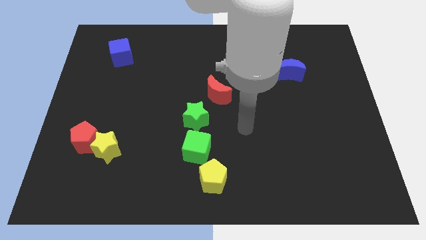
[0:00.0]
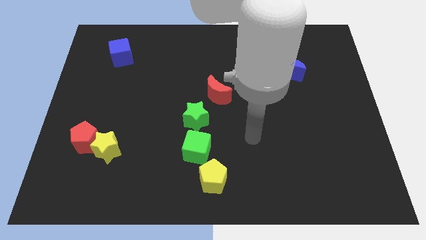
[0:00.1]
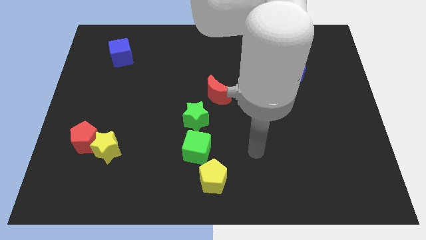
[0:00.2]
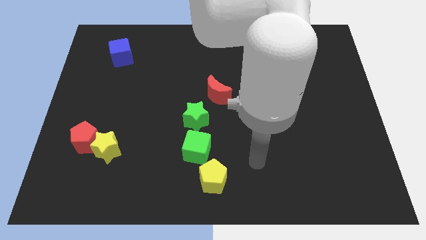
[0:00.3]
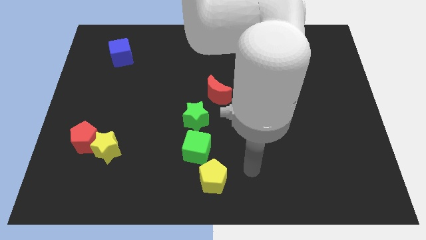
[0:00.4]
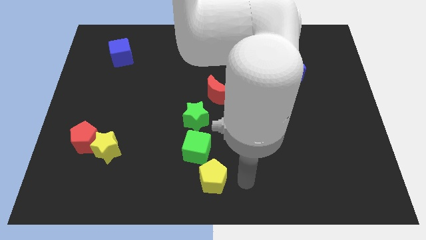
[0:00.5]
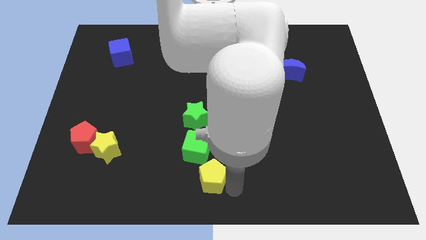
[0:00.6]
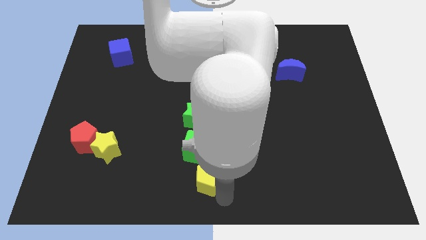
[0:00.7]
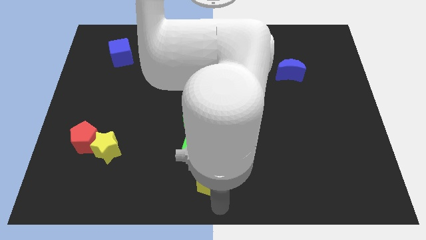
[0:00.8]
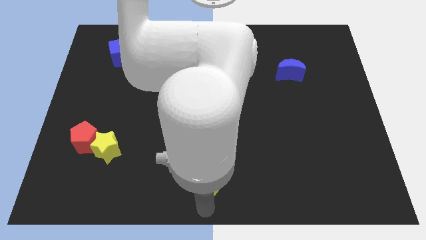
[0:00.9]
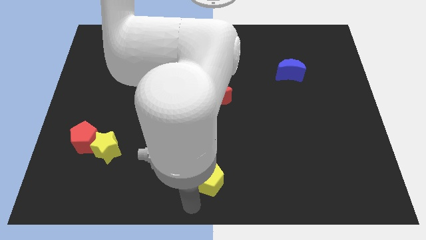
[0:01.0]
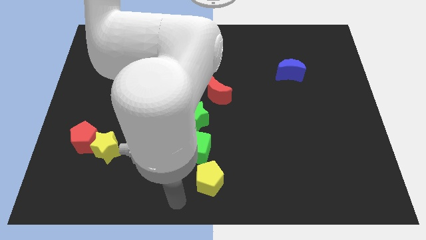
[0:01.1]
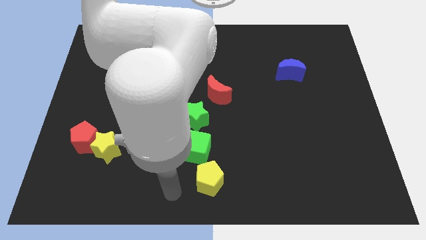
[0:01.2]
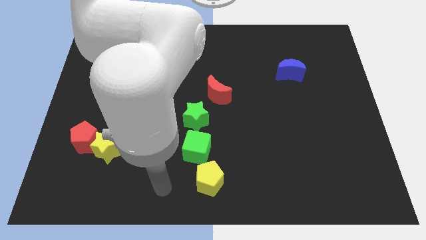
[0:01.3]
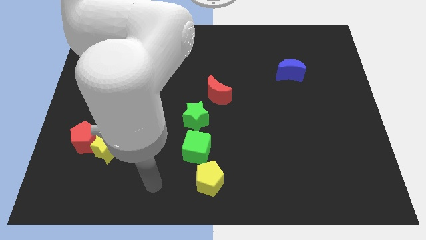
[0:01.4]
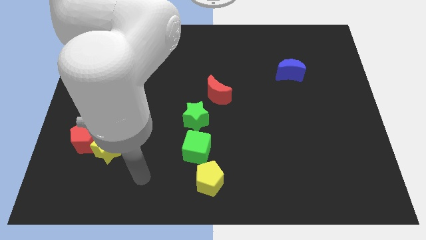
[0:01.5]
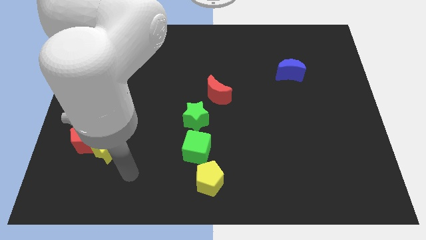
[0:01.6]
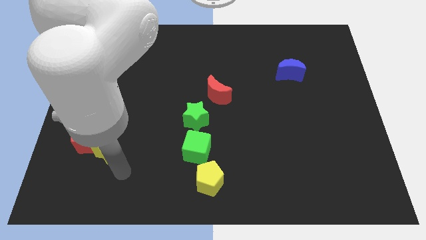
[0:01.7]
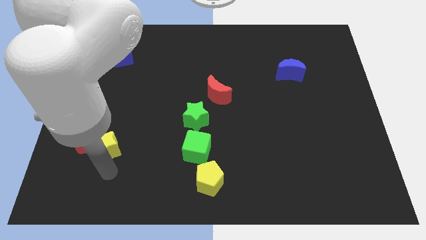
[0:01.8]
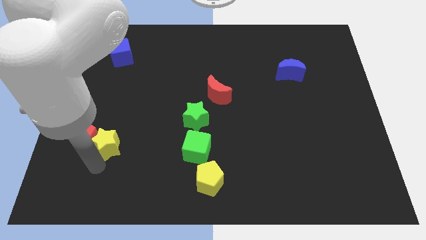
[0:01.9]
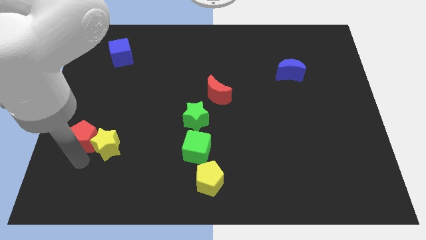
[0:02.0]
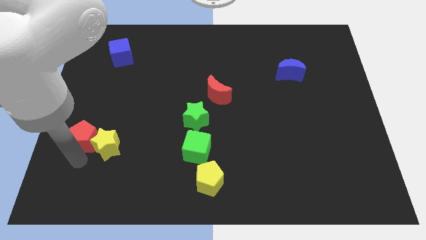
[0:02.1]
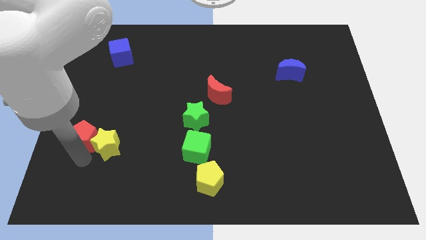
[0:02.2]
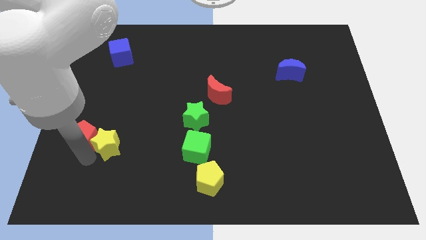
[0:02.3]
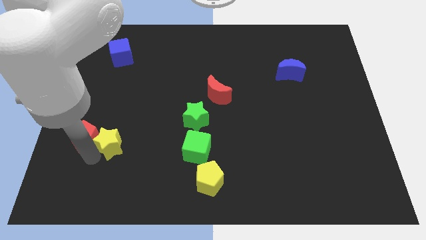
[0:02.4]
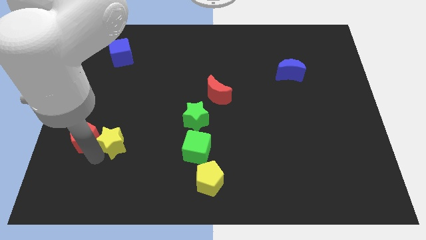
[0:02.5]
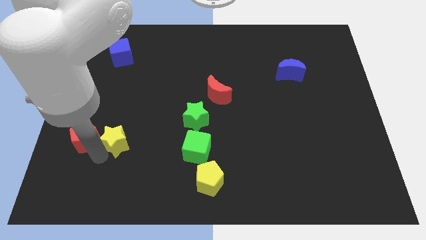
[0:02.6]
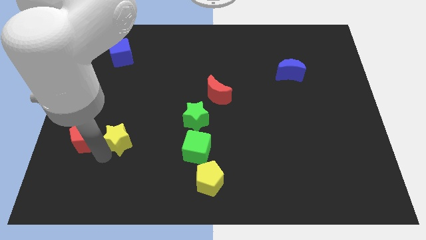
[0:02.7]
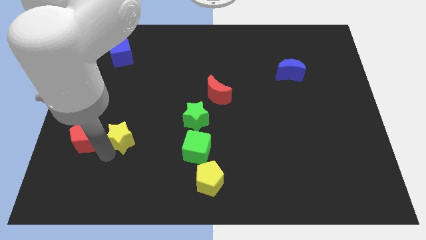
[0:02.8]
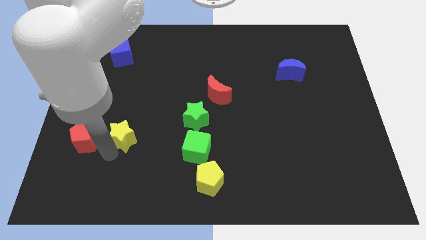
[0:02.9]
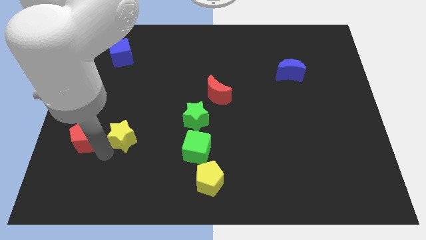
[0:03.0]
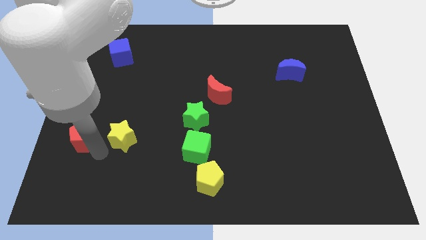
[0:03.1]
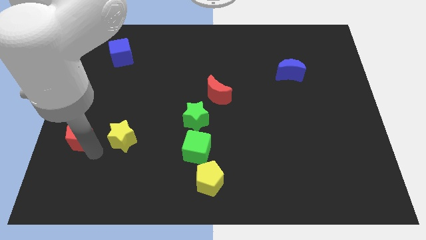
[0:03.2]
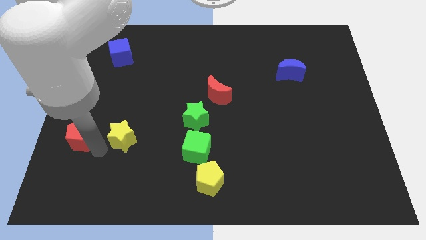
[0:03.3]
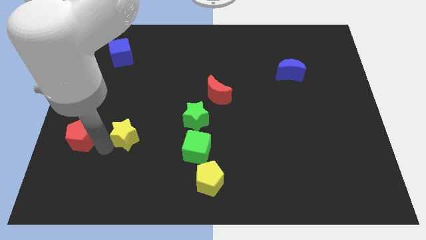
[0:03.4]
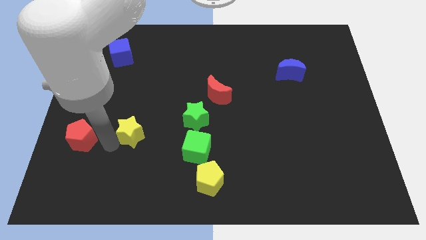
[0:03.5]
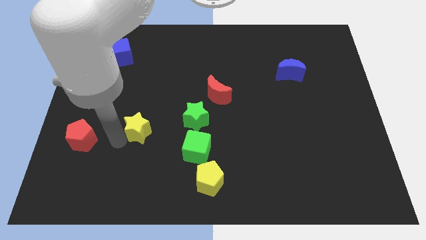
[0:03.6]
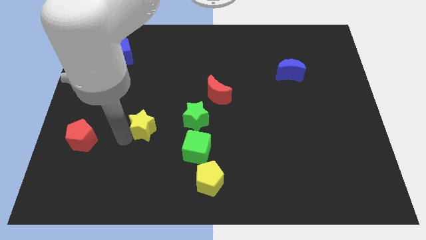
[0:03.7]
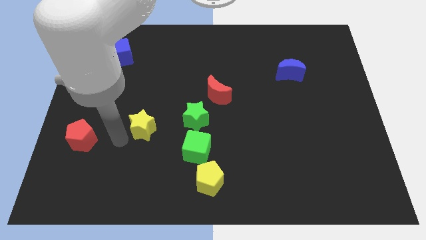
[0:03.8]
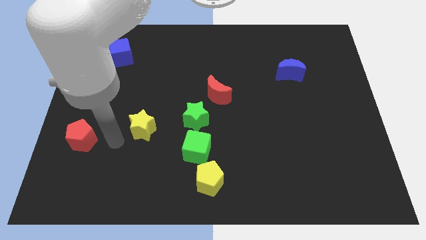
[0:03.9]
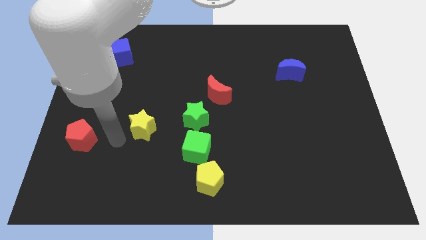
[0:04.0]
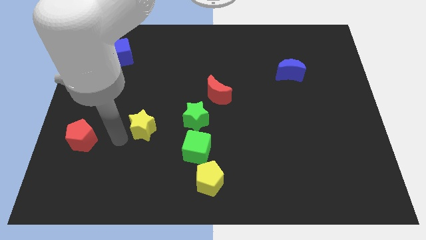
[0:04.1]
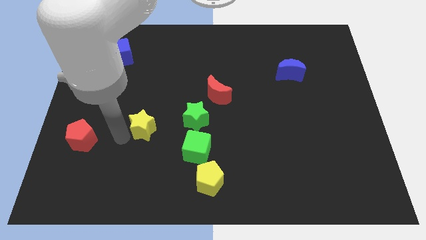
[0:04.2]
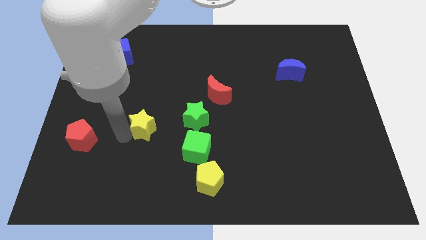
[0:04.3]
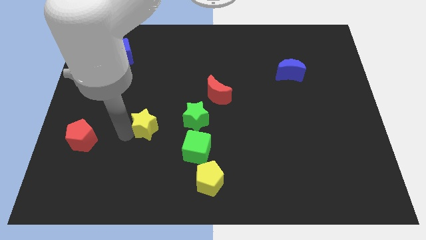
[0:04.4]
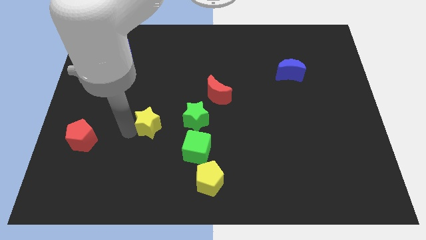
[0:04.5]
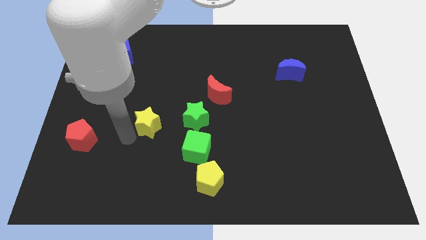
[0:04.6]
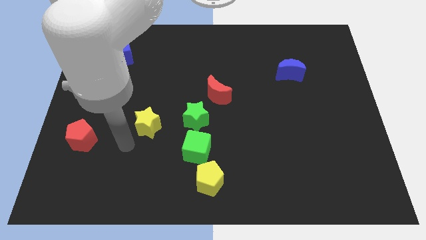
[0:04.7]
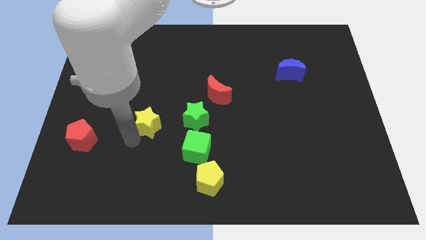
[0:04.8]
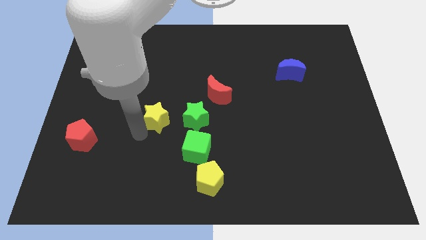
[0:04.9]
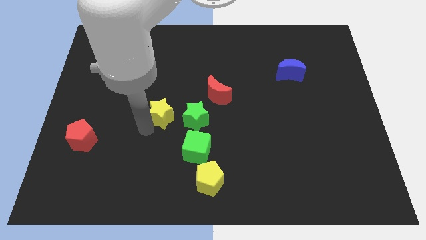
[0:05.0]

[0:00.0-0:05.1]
move the yellow star to the top left of the green star

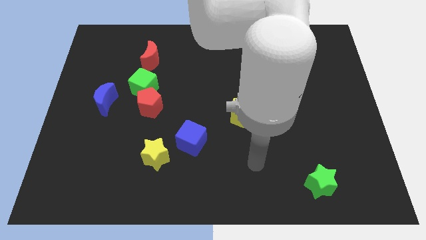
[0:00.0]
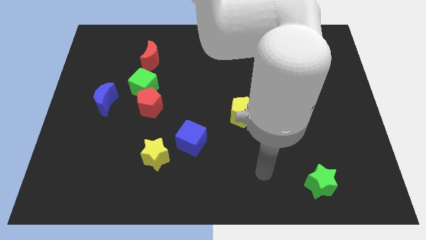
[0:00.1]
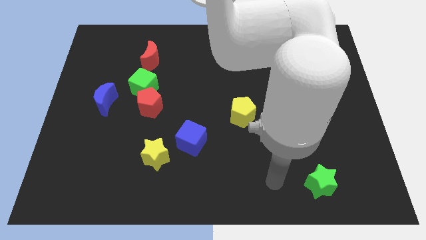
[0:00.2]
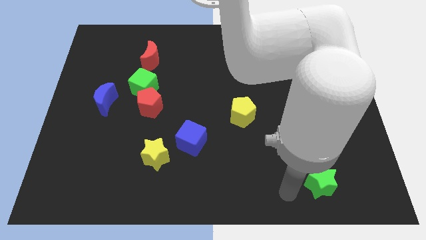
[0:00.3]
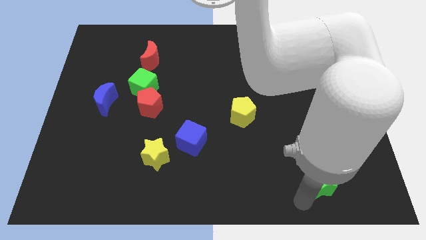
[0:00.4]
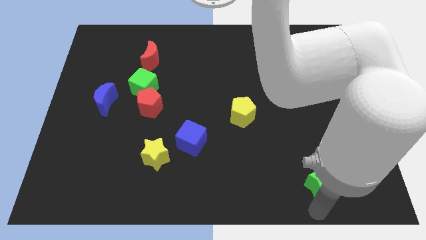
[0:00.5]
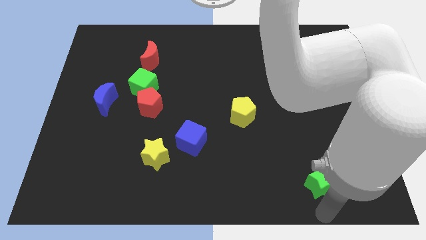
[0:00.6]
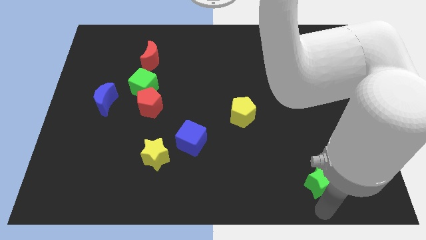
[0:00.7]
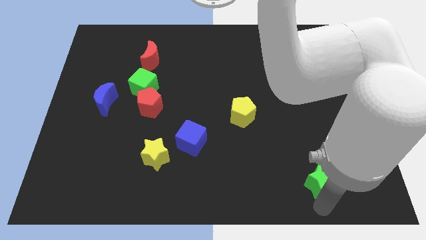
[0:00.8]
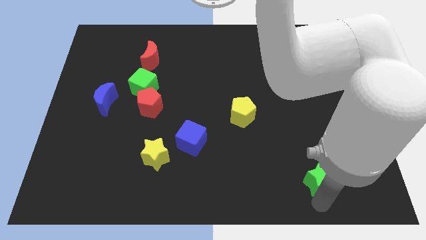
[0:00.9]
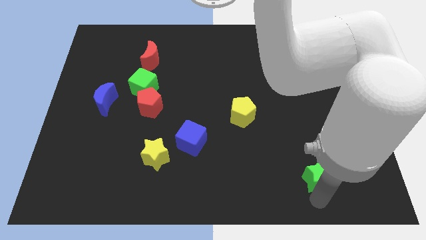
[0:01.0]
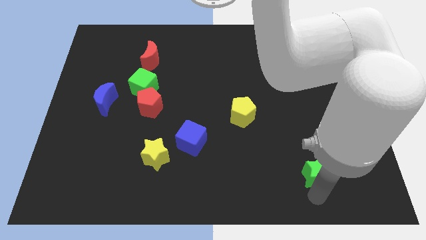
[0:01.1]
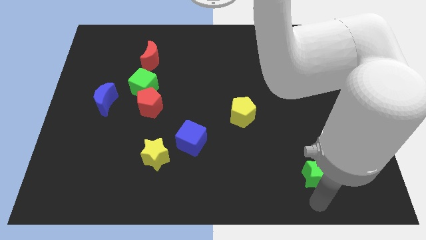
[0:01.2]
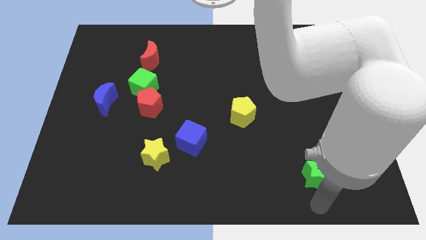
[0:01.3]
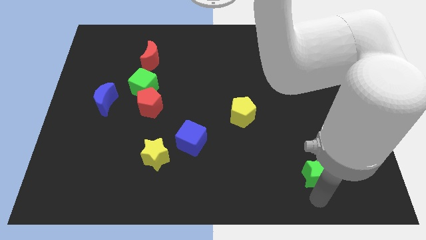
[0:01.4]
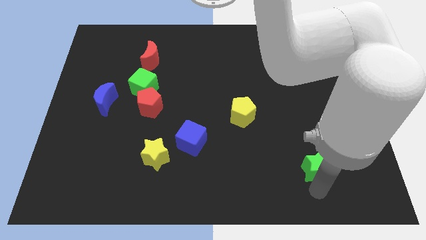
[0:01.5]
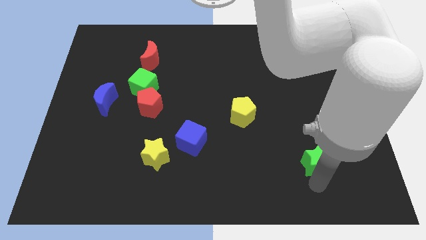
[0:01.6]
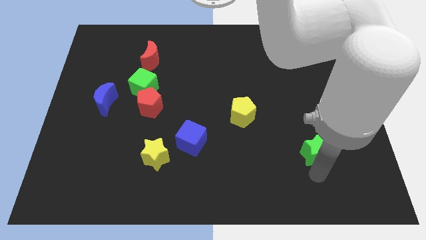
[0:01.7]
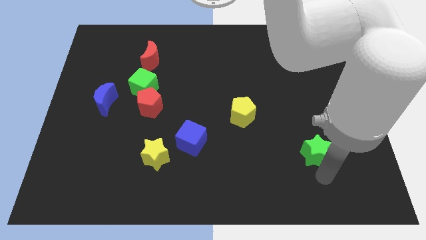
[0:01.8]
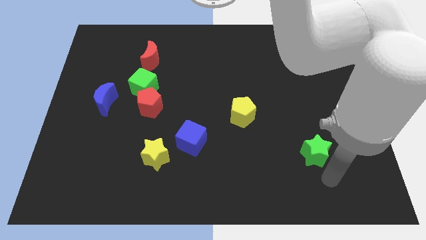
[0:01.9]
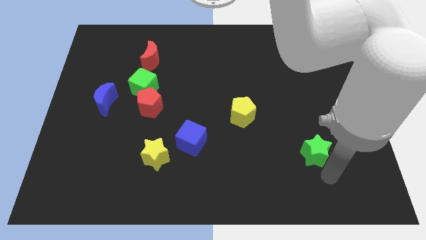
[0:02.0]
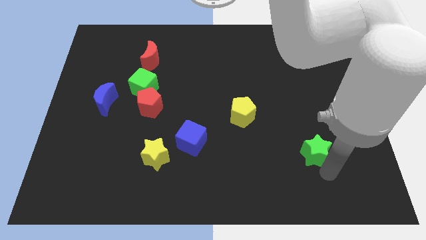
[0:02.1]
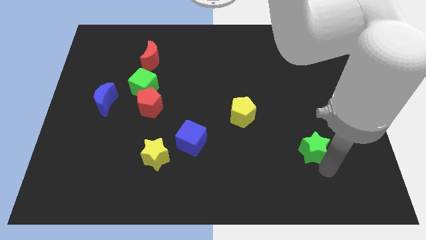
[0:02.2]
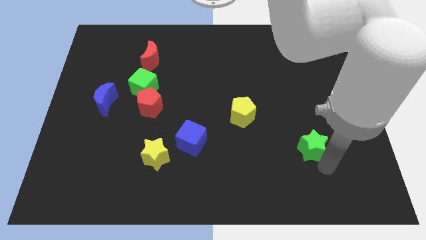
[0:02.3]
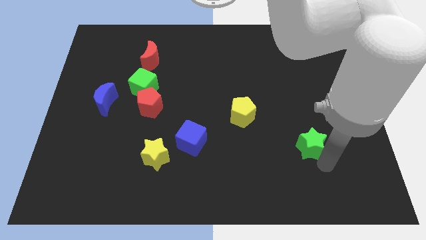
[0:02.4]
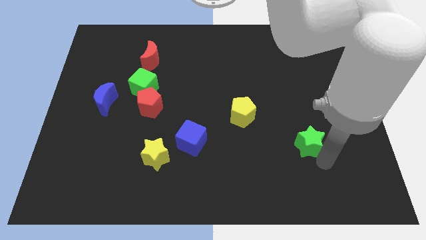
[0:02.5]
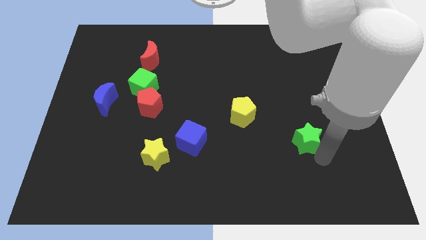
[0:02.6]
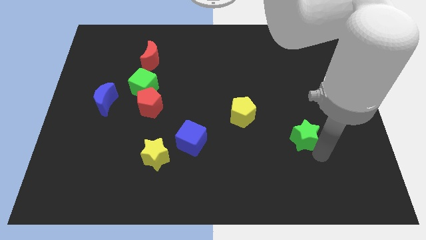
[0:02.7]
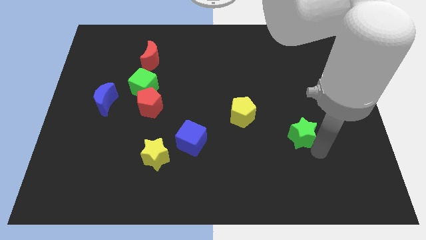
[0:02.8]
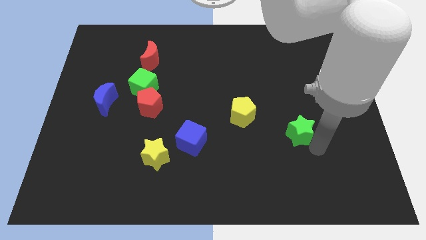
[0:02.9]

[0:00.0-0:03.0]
move the green star to the right of the yellow pentagon
